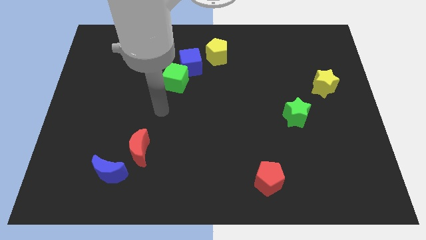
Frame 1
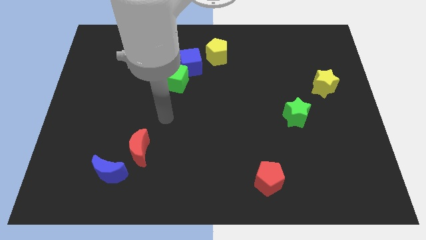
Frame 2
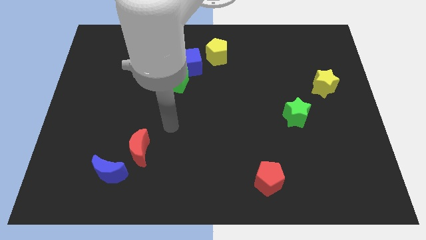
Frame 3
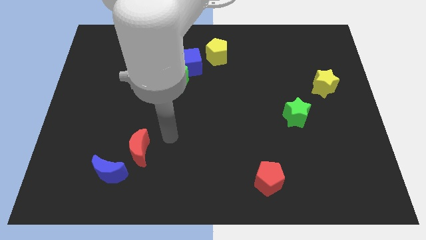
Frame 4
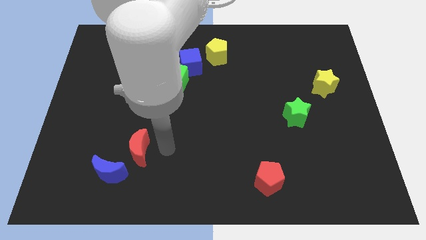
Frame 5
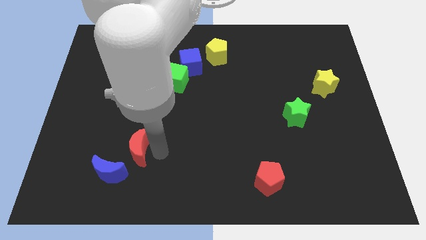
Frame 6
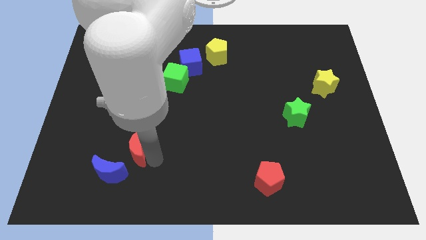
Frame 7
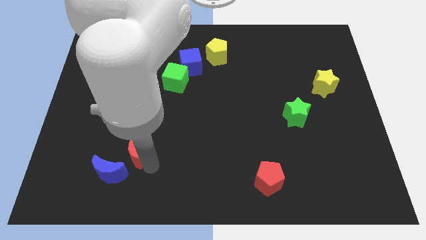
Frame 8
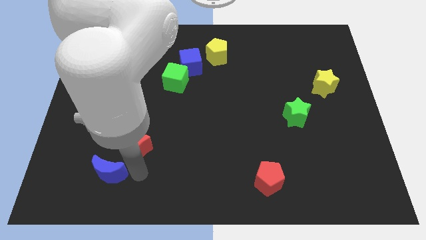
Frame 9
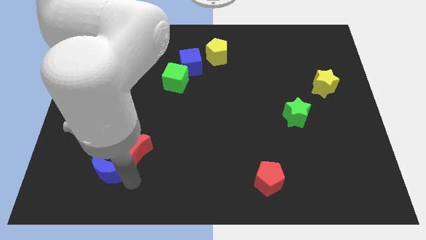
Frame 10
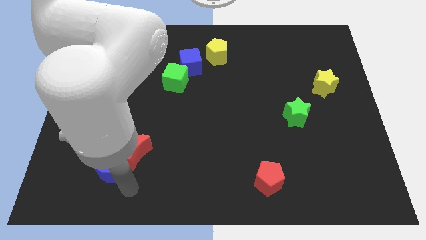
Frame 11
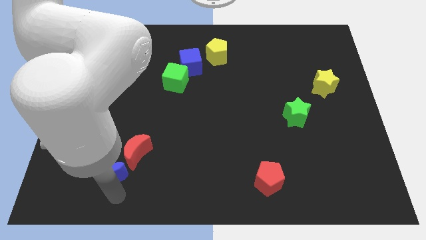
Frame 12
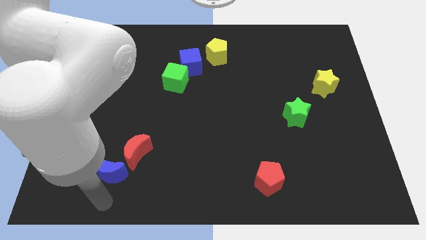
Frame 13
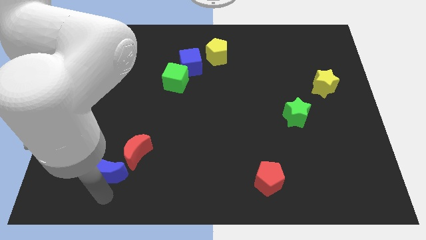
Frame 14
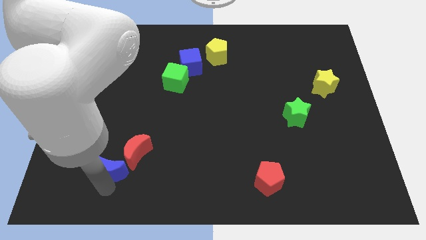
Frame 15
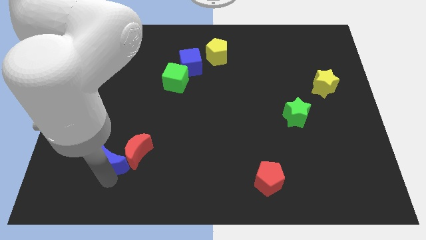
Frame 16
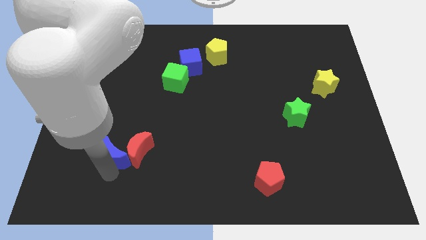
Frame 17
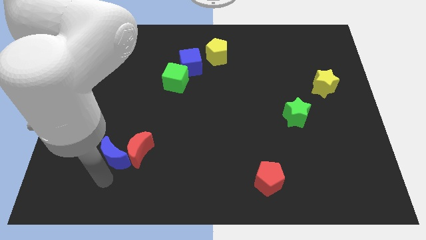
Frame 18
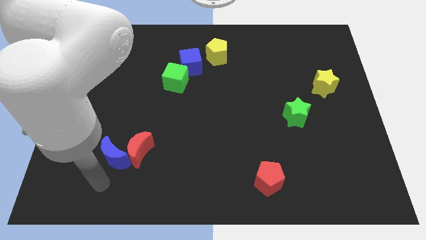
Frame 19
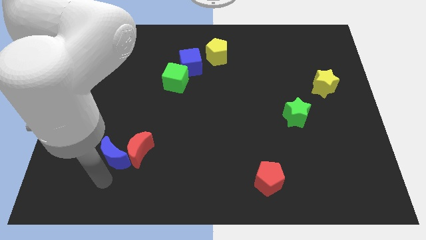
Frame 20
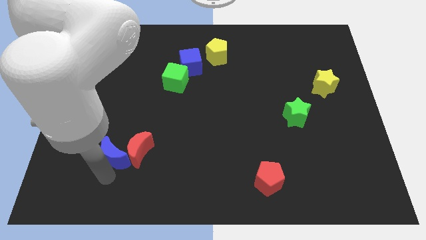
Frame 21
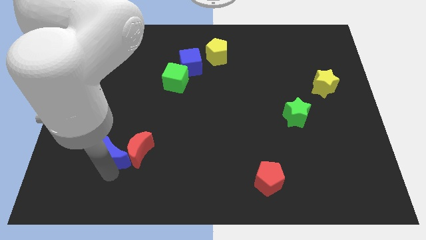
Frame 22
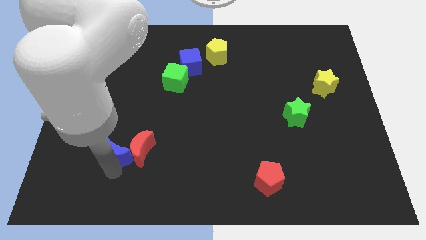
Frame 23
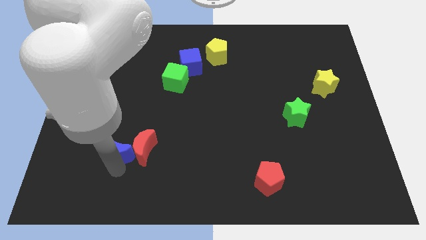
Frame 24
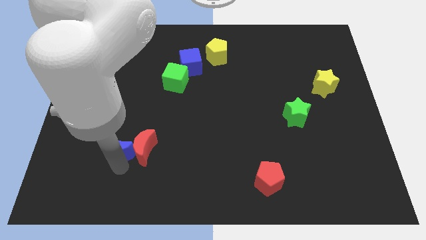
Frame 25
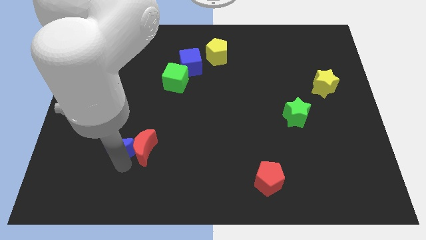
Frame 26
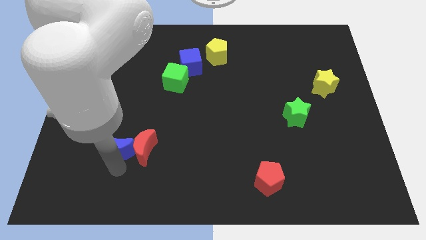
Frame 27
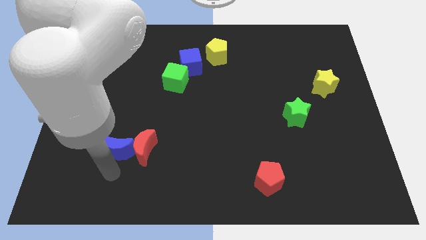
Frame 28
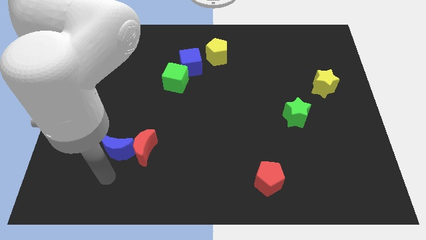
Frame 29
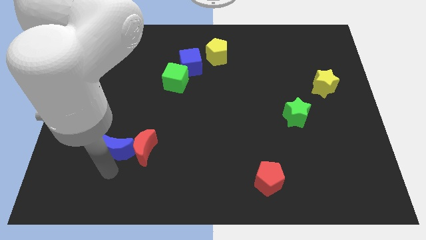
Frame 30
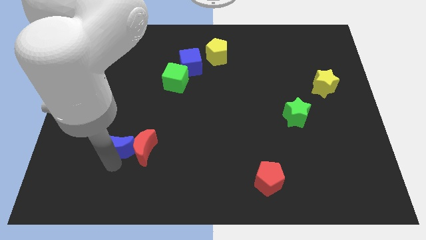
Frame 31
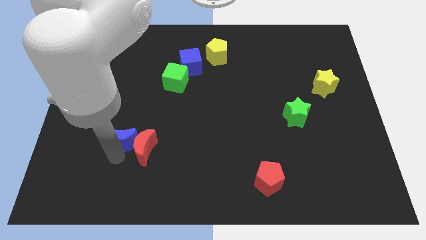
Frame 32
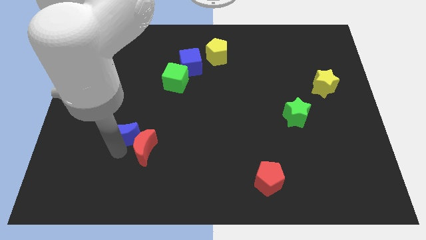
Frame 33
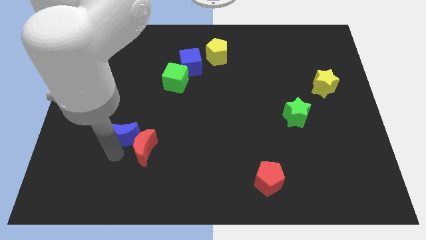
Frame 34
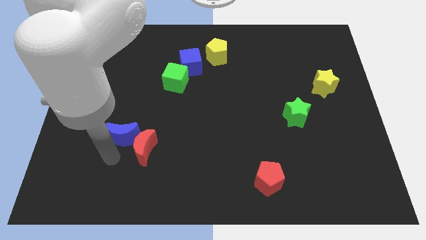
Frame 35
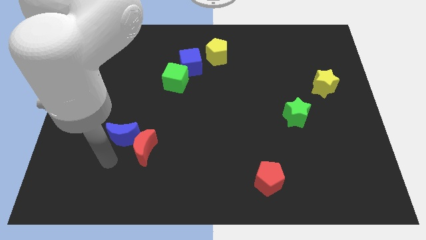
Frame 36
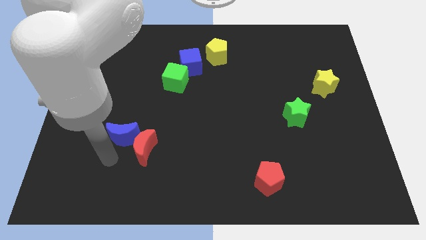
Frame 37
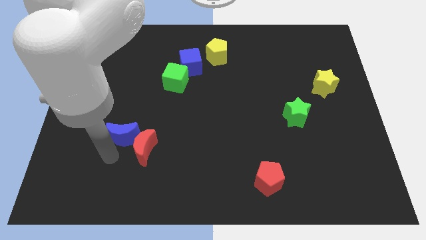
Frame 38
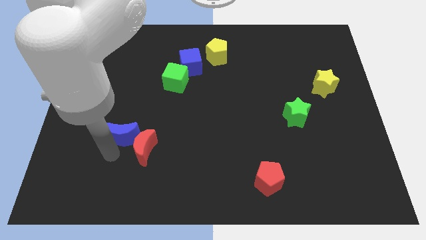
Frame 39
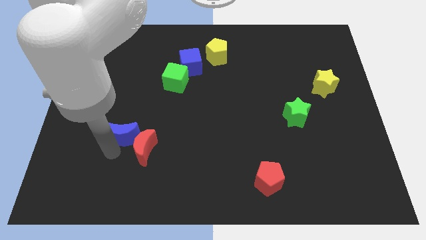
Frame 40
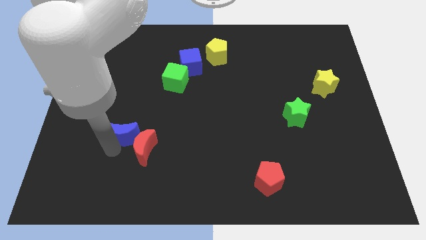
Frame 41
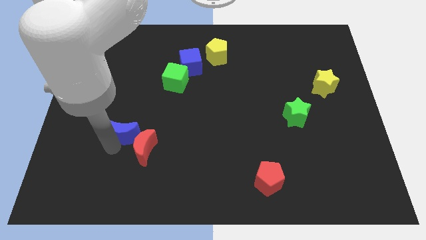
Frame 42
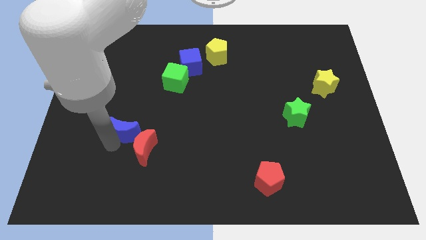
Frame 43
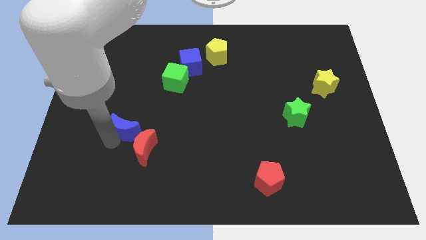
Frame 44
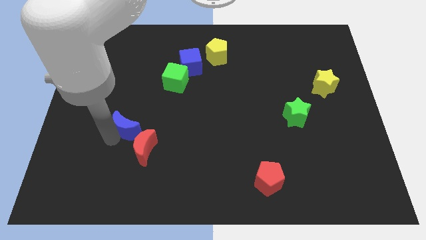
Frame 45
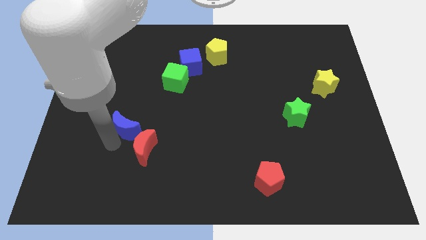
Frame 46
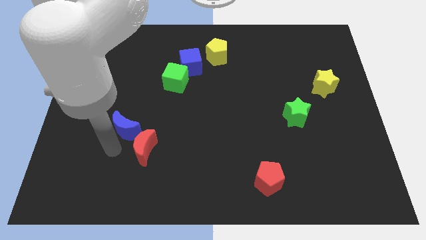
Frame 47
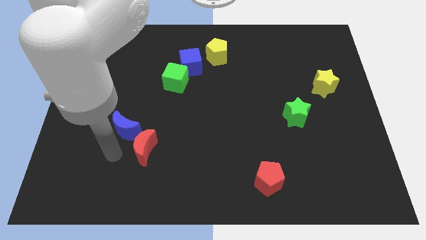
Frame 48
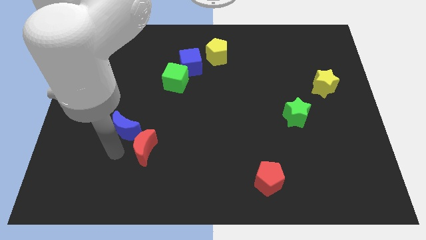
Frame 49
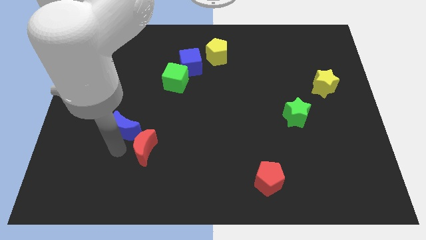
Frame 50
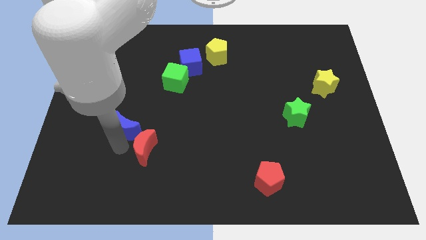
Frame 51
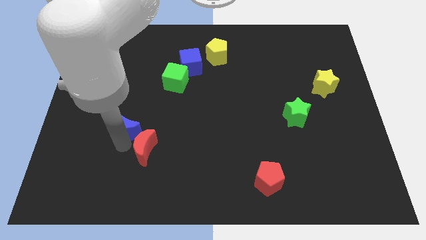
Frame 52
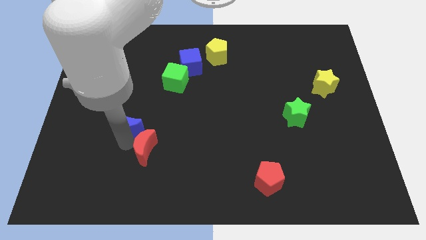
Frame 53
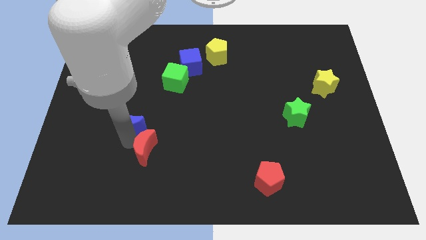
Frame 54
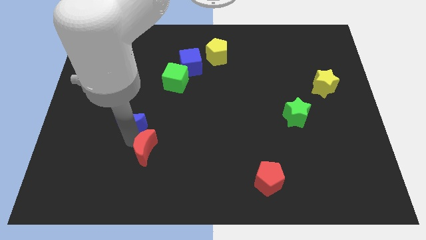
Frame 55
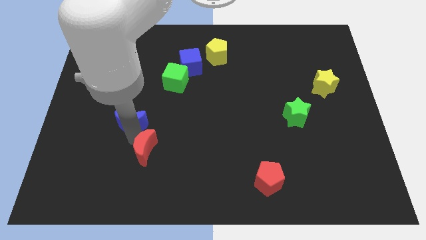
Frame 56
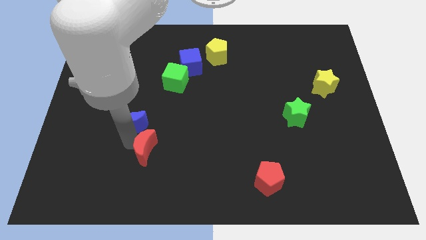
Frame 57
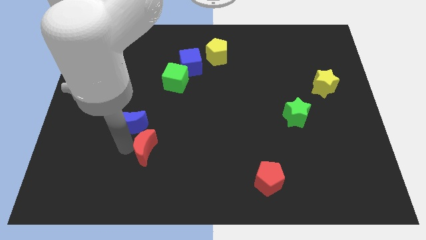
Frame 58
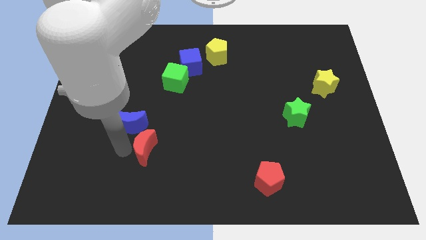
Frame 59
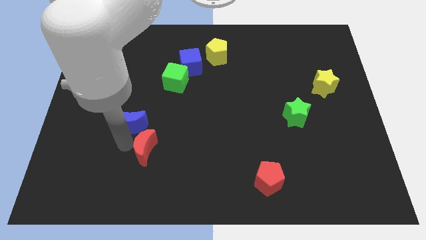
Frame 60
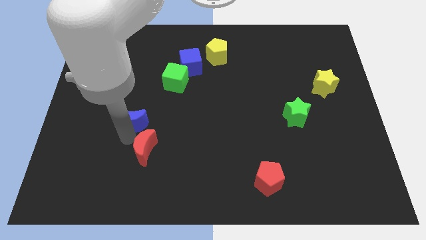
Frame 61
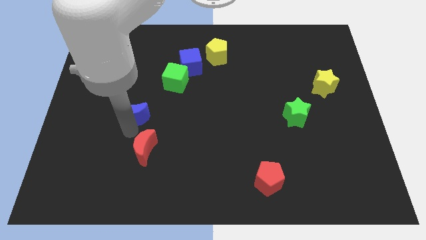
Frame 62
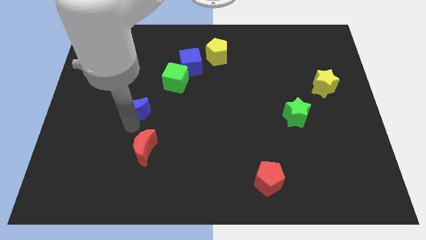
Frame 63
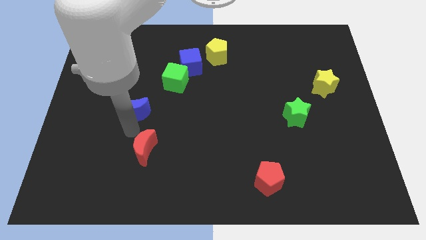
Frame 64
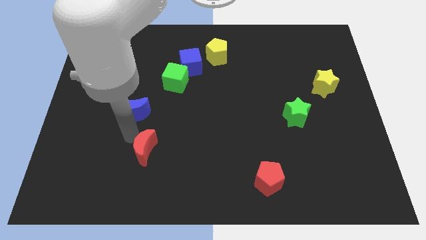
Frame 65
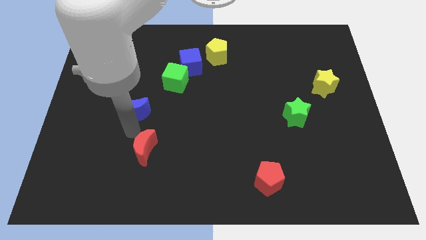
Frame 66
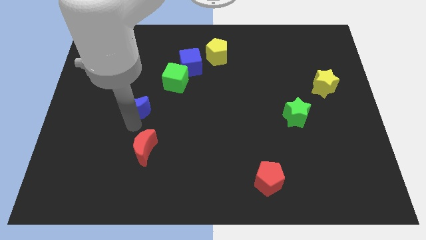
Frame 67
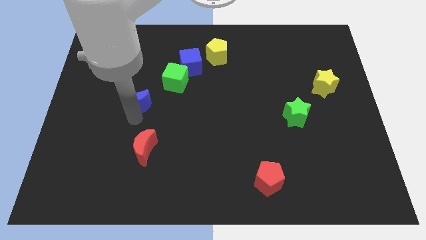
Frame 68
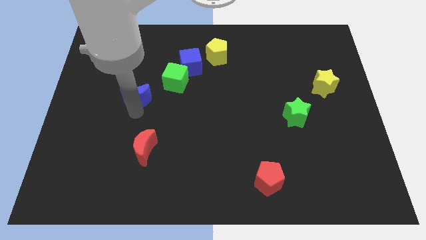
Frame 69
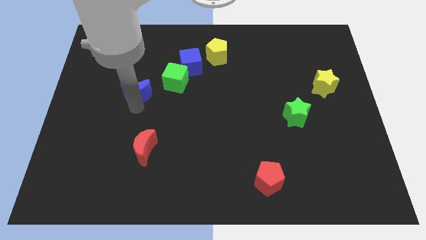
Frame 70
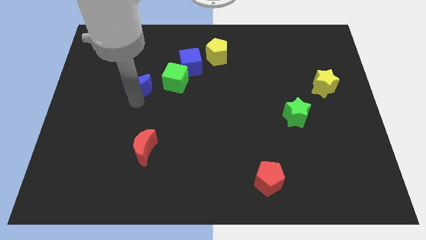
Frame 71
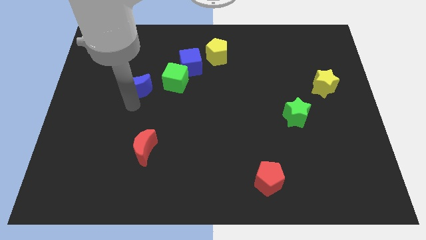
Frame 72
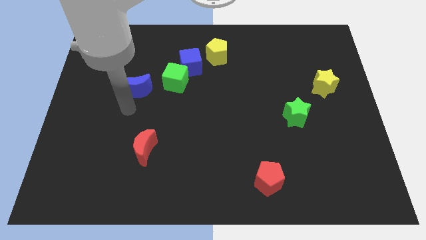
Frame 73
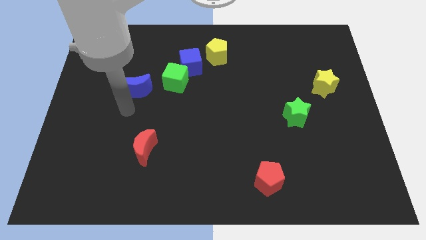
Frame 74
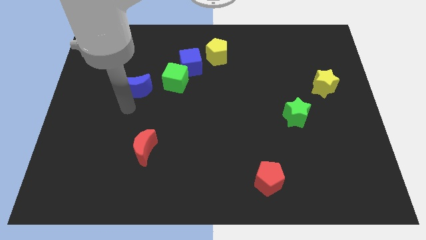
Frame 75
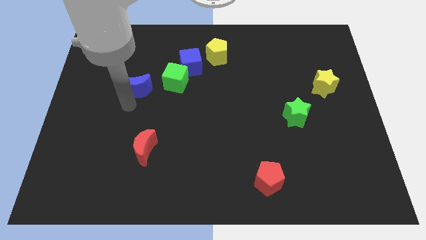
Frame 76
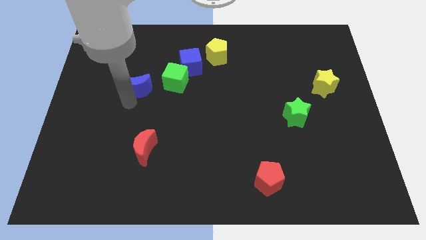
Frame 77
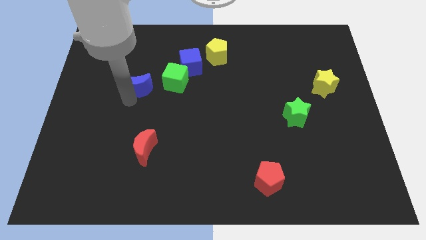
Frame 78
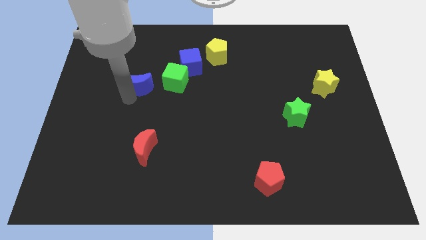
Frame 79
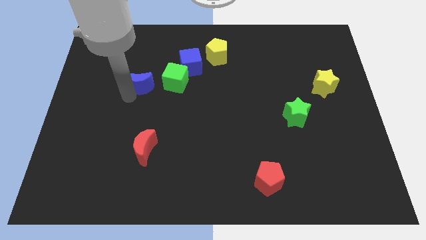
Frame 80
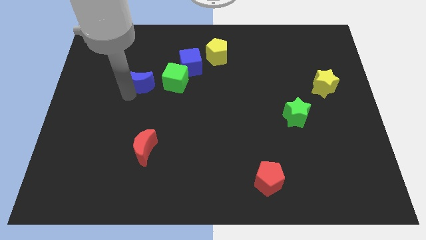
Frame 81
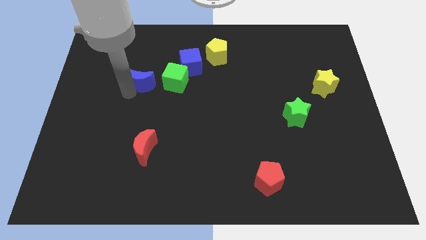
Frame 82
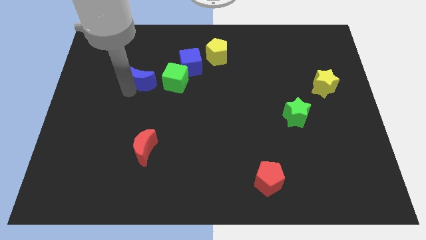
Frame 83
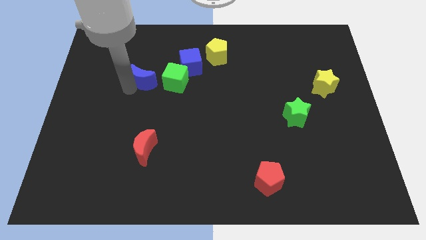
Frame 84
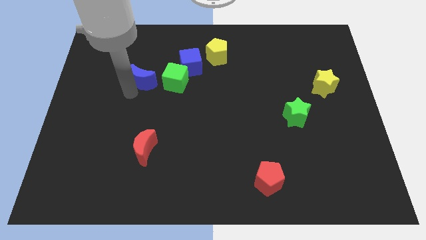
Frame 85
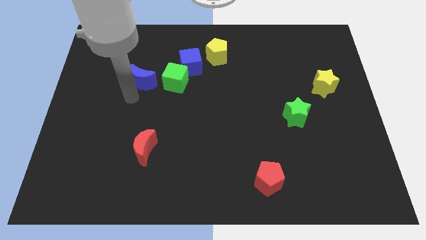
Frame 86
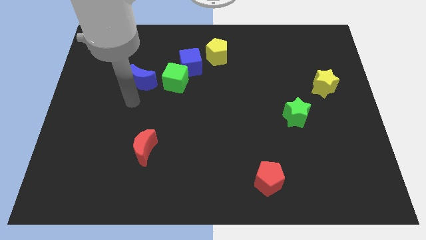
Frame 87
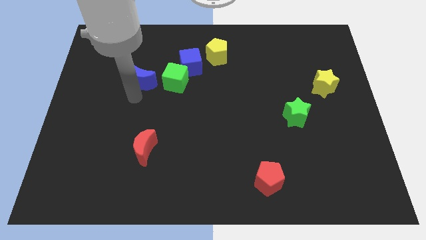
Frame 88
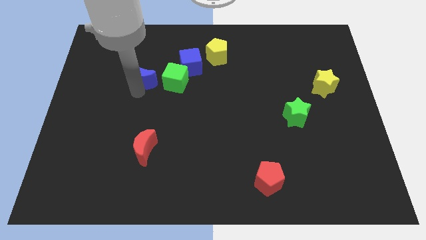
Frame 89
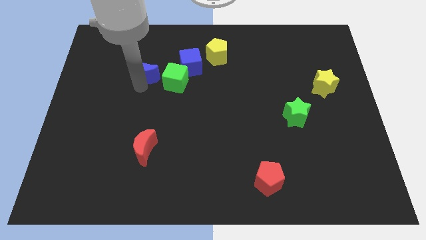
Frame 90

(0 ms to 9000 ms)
slide the blue moon to the left side of the blue cube
